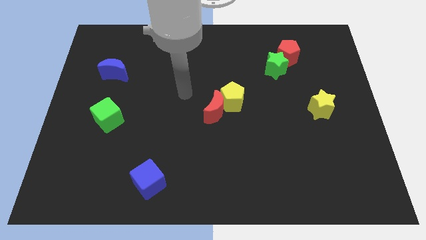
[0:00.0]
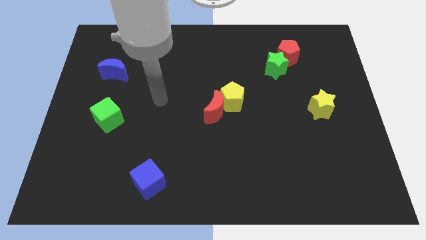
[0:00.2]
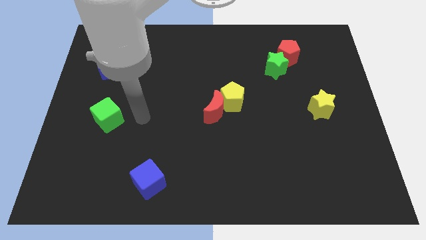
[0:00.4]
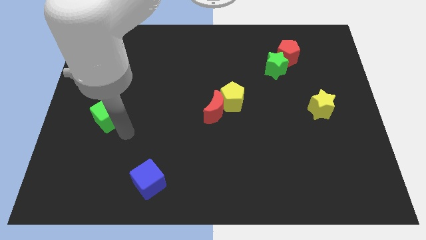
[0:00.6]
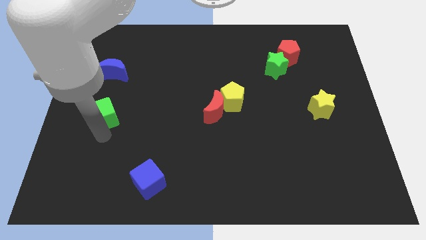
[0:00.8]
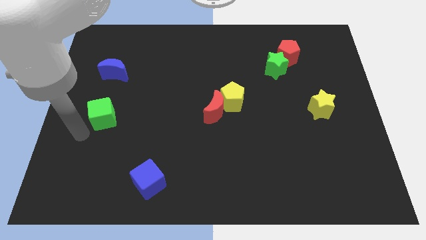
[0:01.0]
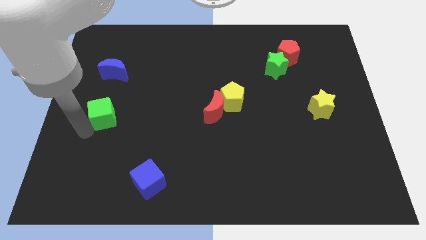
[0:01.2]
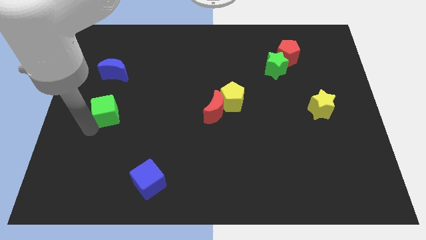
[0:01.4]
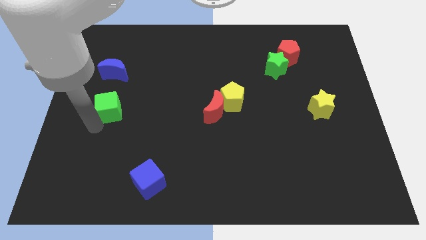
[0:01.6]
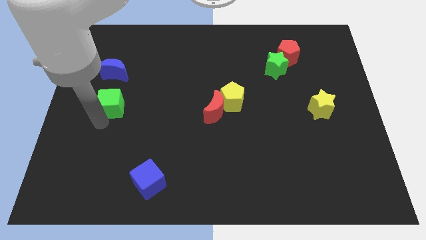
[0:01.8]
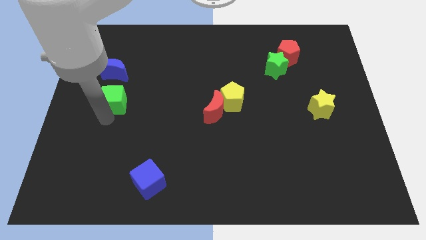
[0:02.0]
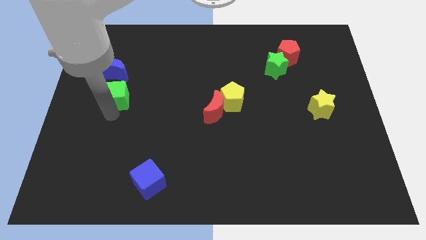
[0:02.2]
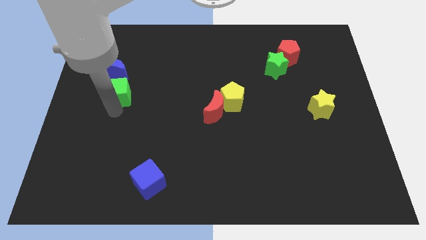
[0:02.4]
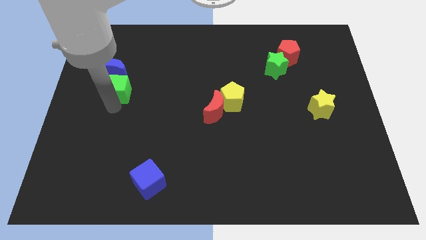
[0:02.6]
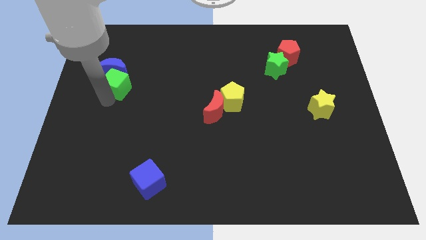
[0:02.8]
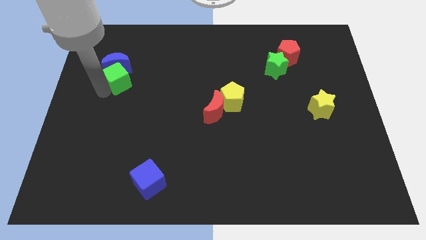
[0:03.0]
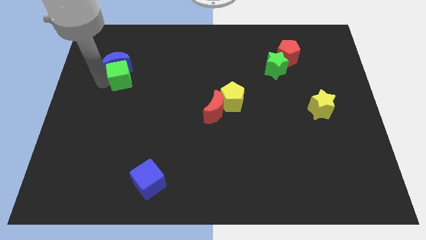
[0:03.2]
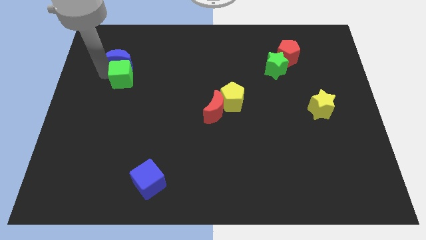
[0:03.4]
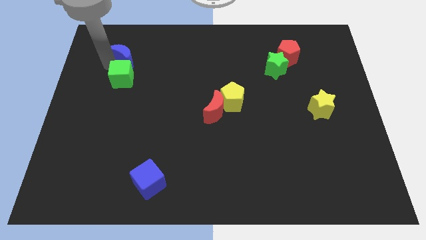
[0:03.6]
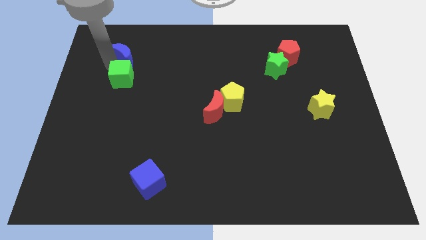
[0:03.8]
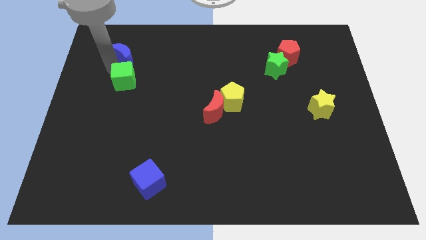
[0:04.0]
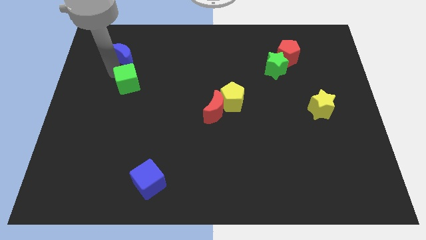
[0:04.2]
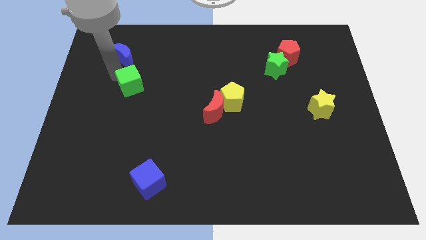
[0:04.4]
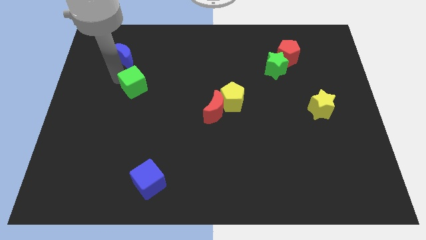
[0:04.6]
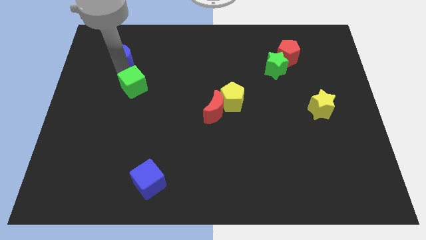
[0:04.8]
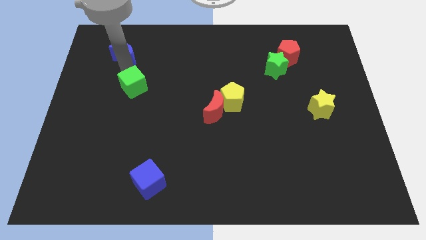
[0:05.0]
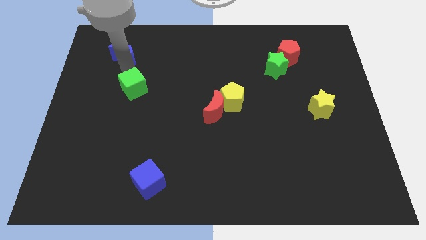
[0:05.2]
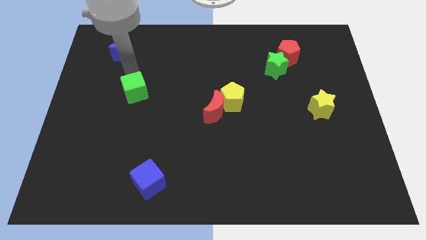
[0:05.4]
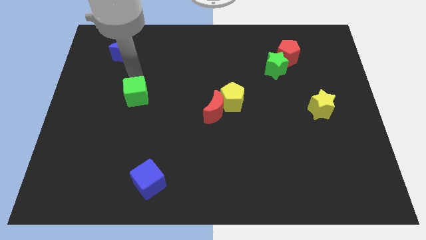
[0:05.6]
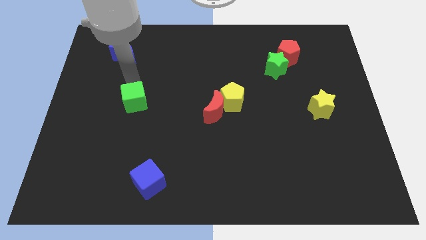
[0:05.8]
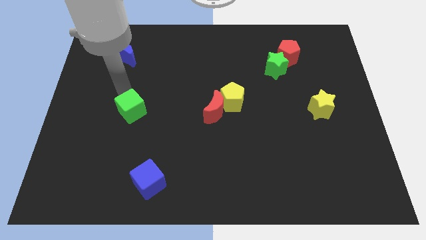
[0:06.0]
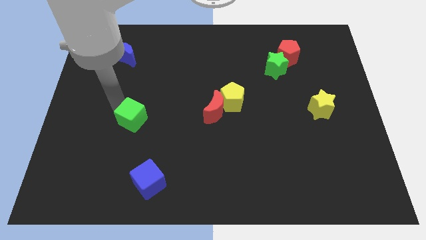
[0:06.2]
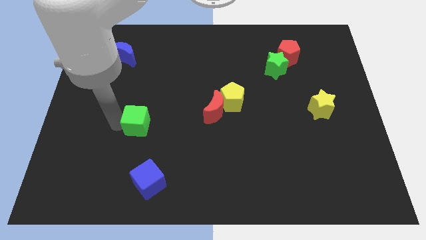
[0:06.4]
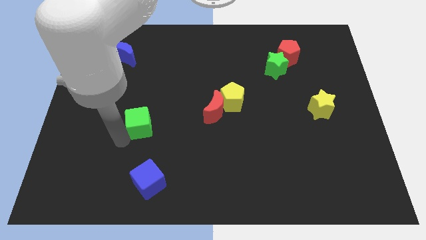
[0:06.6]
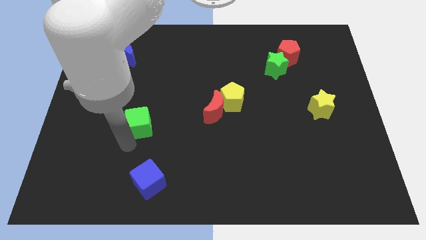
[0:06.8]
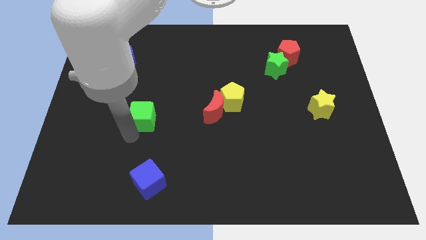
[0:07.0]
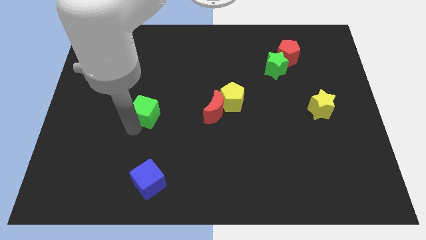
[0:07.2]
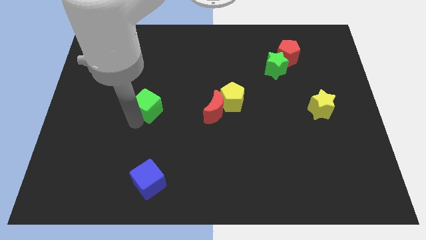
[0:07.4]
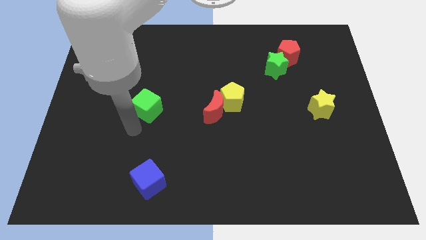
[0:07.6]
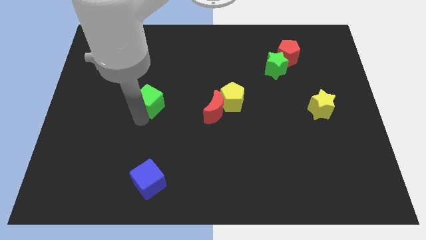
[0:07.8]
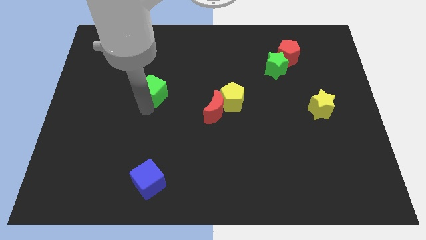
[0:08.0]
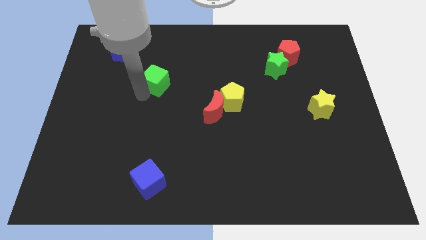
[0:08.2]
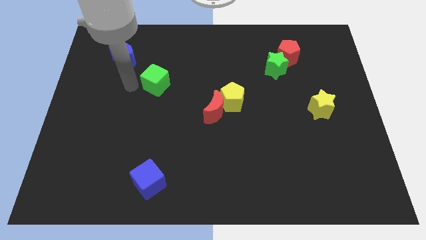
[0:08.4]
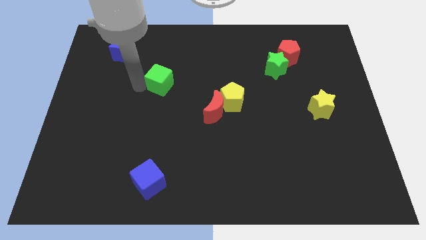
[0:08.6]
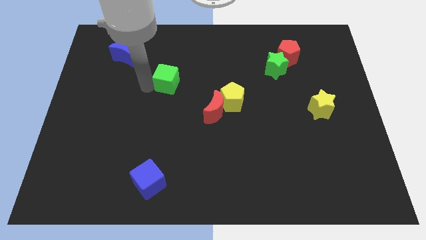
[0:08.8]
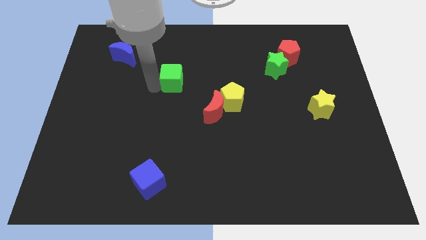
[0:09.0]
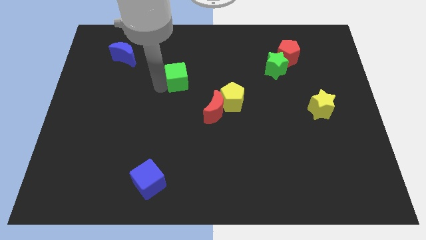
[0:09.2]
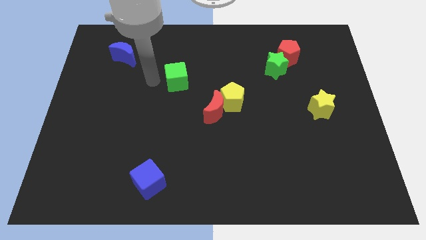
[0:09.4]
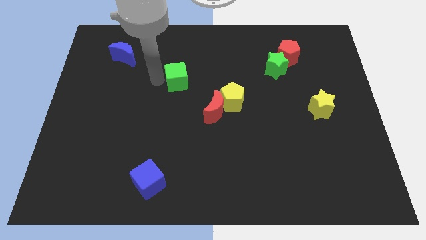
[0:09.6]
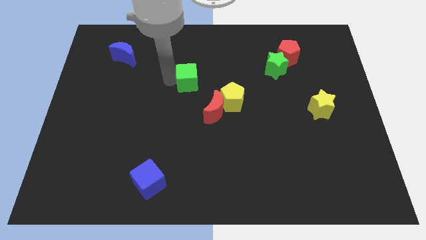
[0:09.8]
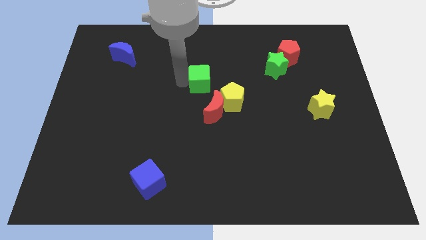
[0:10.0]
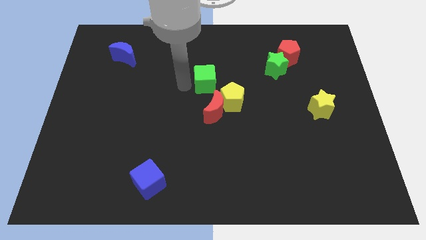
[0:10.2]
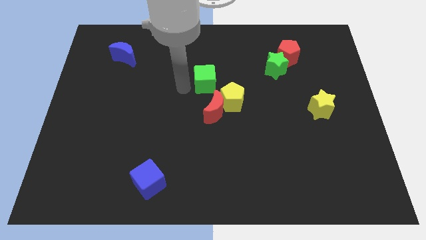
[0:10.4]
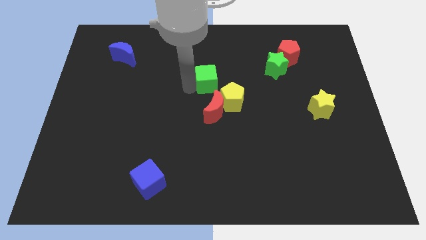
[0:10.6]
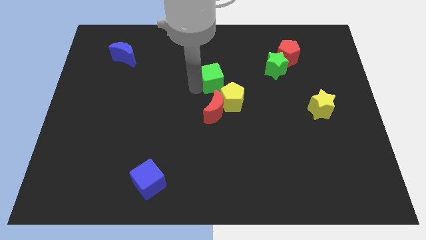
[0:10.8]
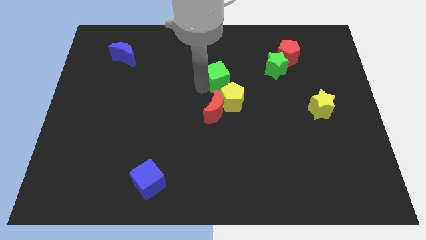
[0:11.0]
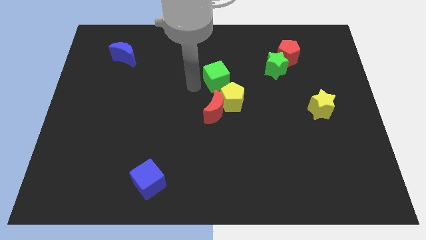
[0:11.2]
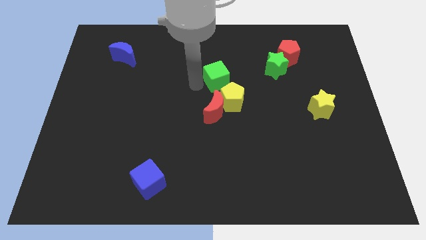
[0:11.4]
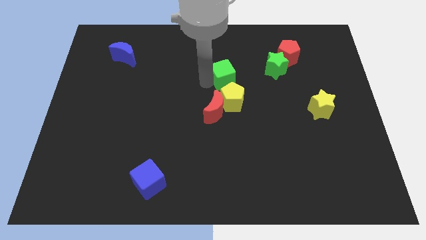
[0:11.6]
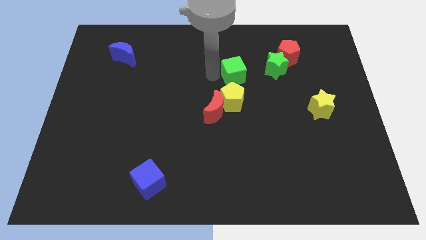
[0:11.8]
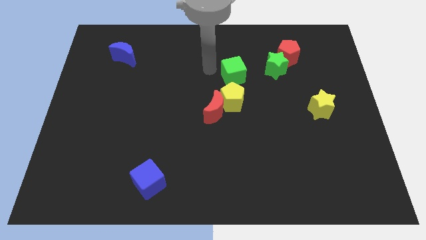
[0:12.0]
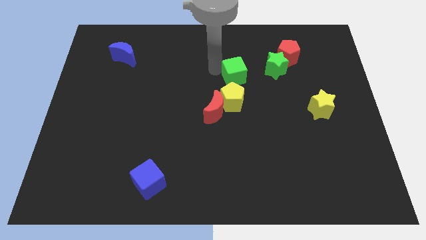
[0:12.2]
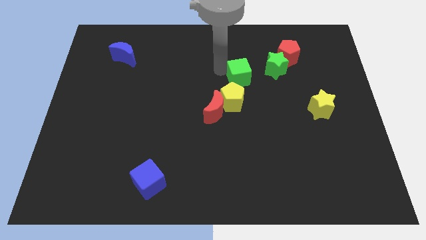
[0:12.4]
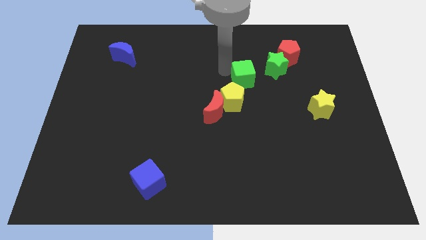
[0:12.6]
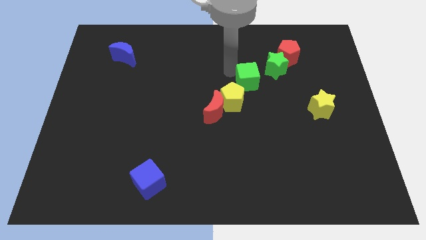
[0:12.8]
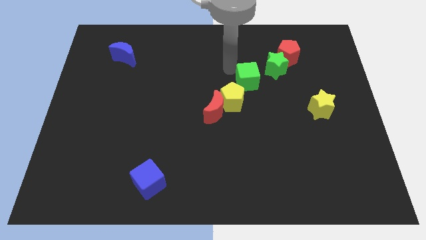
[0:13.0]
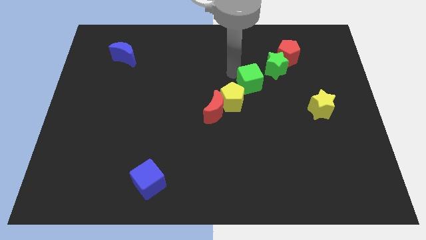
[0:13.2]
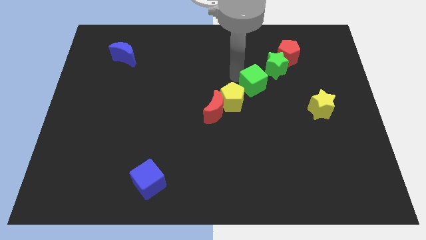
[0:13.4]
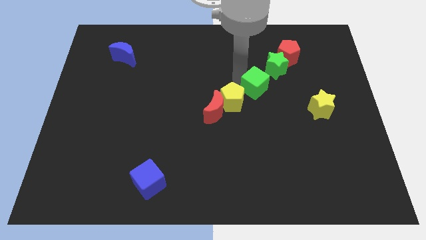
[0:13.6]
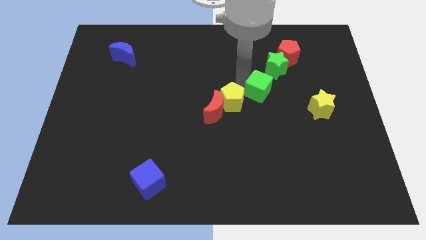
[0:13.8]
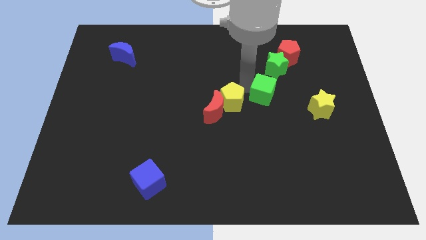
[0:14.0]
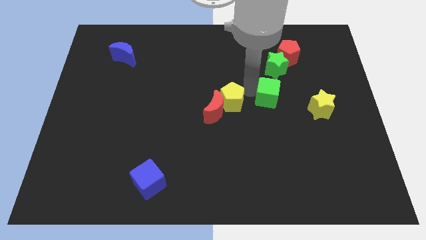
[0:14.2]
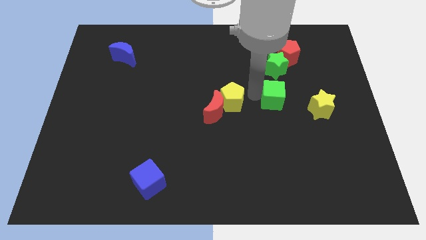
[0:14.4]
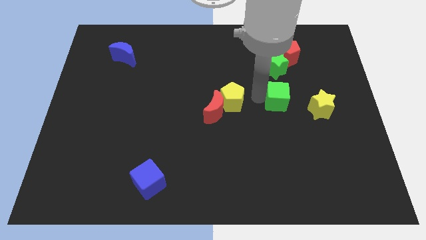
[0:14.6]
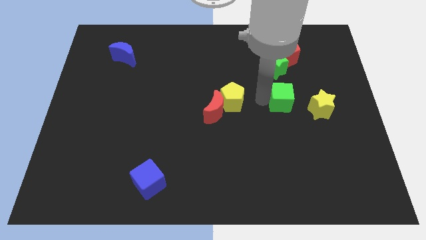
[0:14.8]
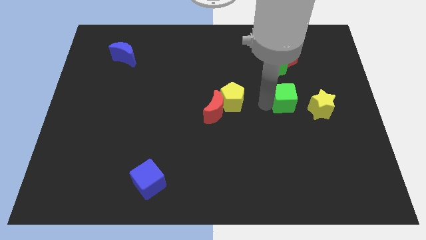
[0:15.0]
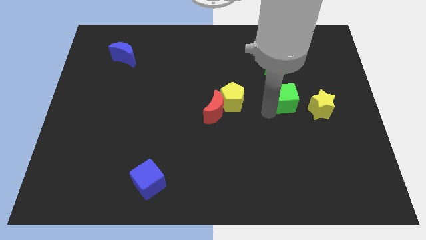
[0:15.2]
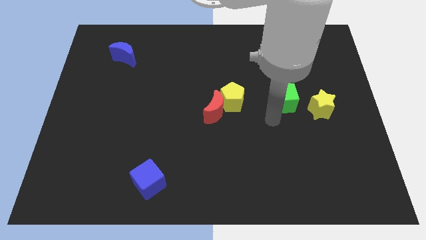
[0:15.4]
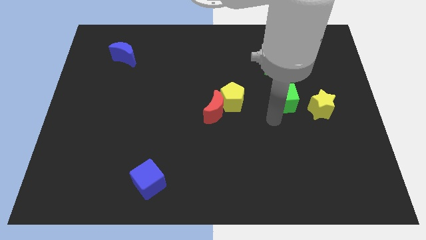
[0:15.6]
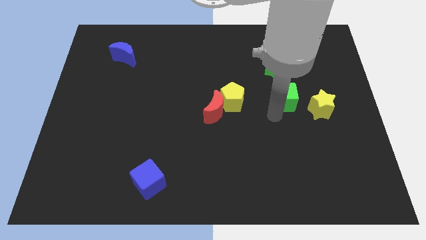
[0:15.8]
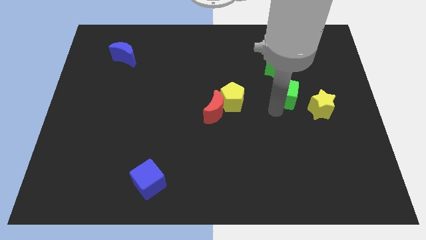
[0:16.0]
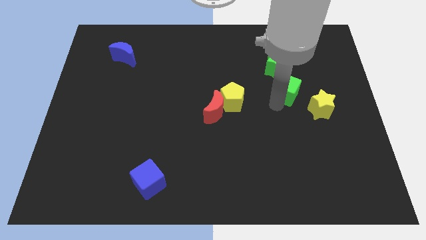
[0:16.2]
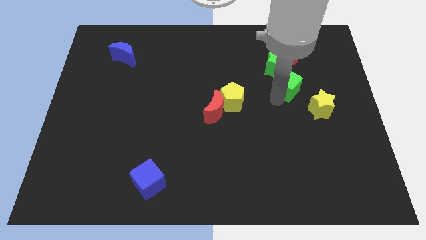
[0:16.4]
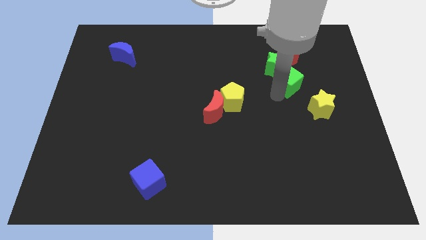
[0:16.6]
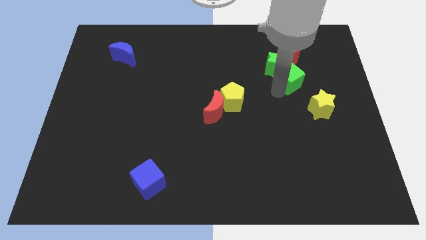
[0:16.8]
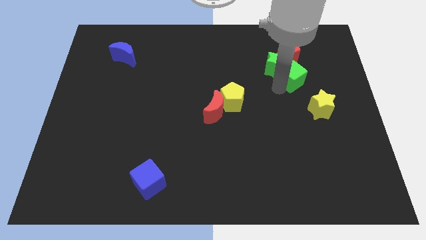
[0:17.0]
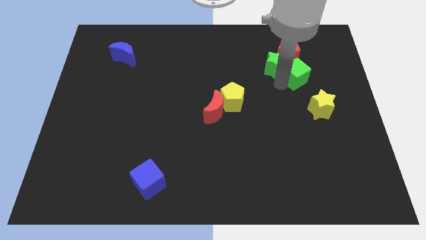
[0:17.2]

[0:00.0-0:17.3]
move the green cube diagonally down and to the right of the red pentagon
